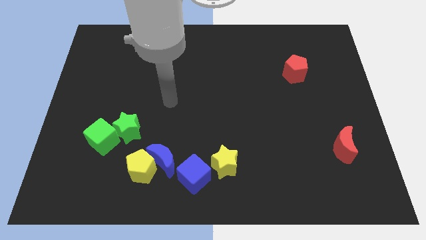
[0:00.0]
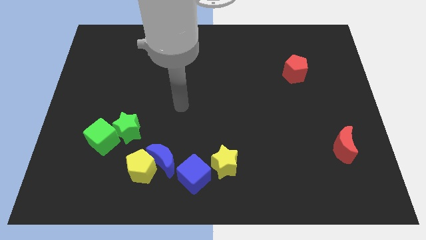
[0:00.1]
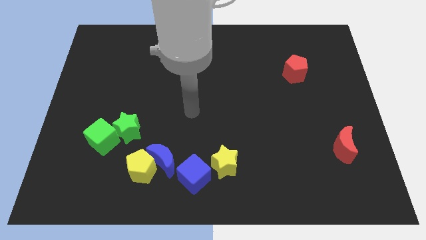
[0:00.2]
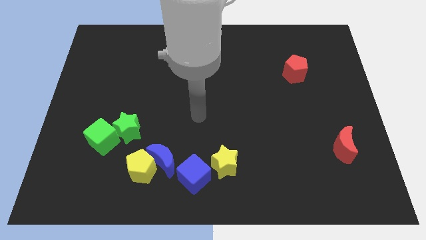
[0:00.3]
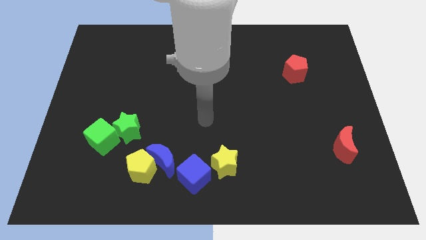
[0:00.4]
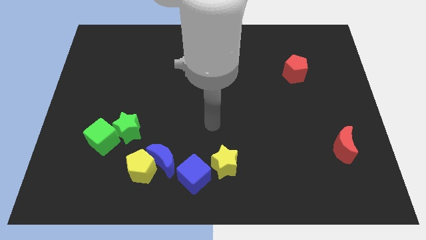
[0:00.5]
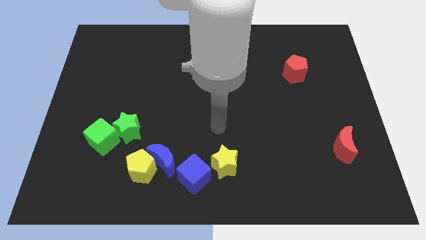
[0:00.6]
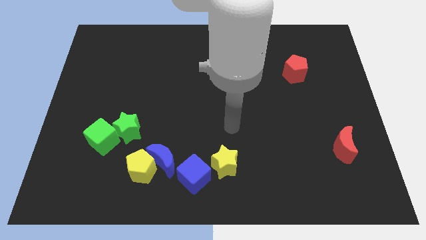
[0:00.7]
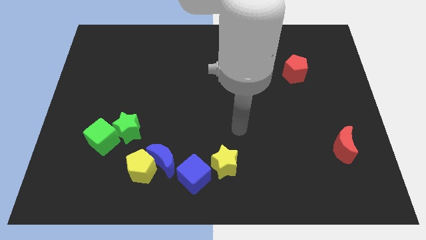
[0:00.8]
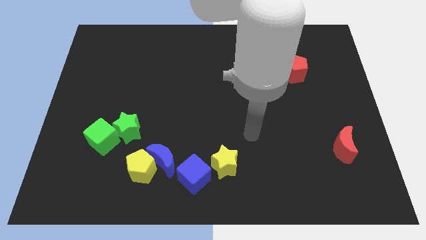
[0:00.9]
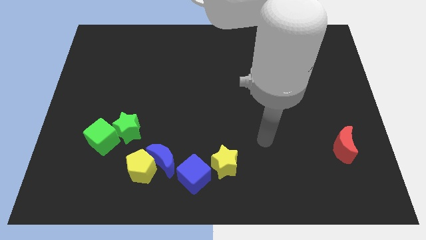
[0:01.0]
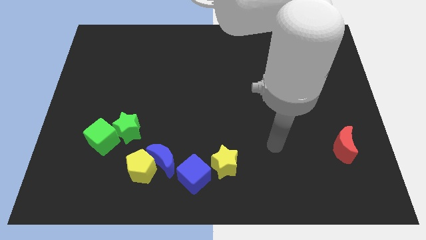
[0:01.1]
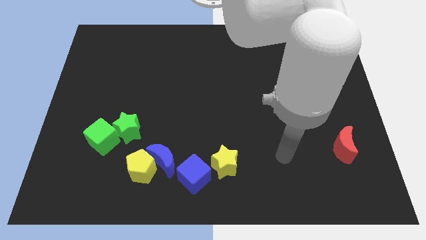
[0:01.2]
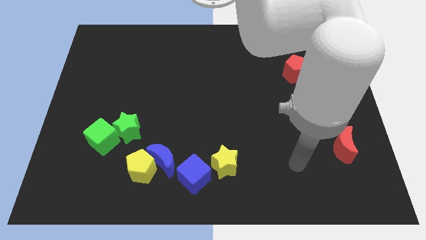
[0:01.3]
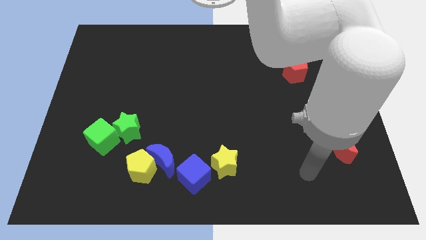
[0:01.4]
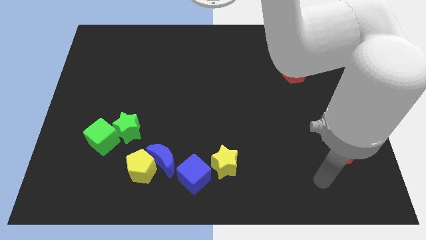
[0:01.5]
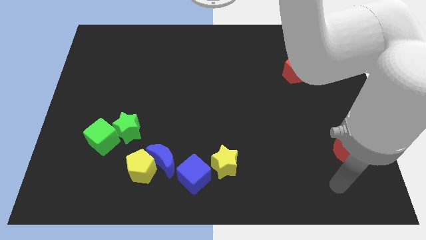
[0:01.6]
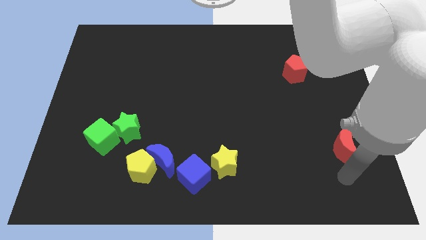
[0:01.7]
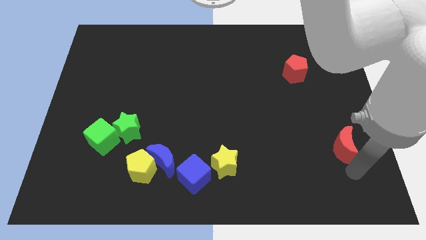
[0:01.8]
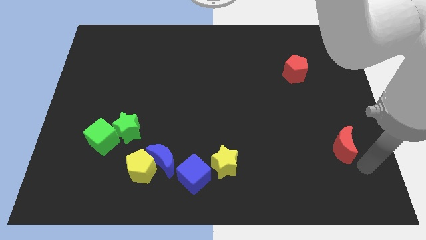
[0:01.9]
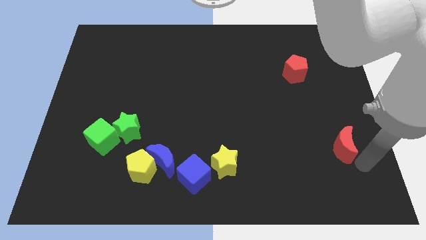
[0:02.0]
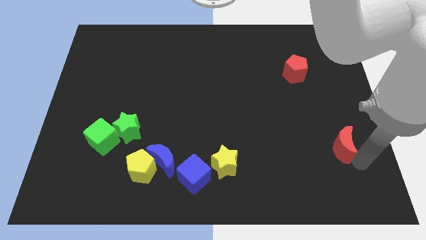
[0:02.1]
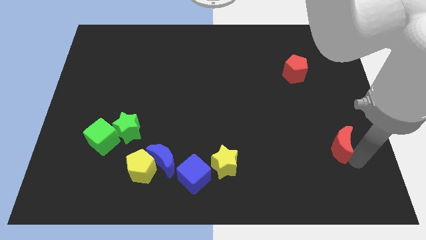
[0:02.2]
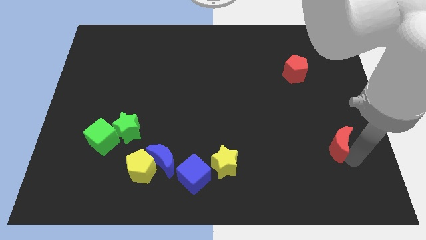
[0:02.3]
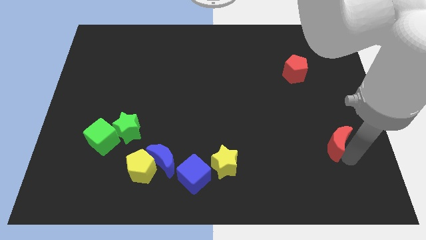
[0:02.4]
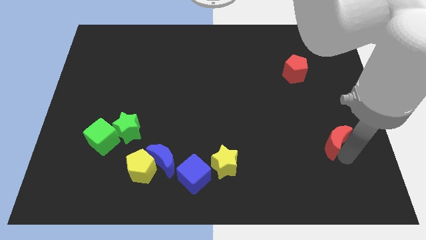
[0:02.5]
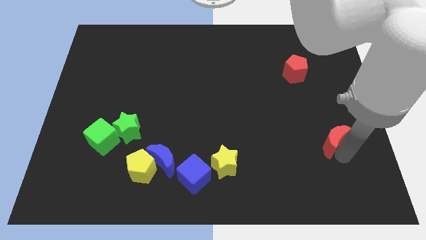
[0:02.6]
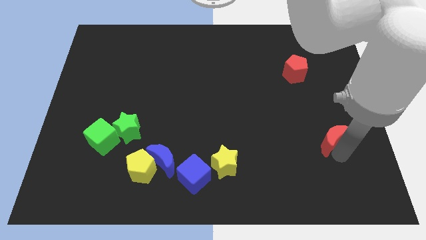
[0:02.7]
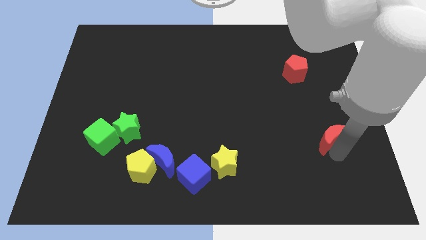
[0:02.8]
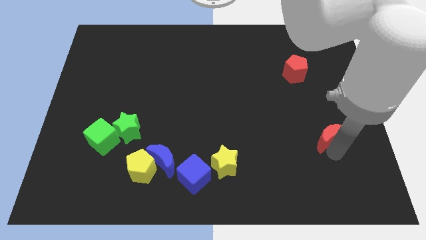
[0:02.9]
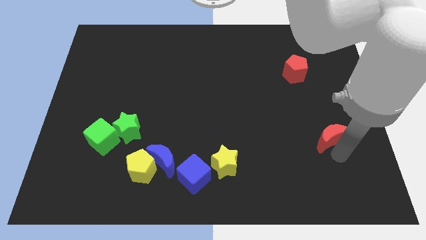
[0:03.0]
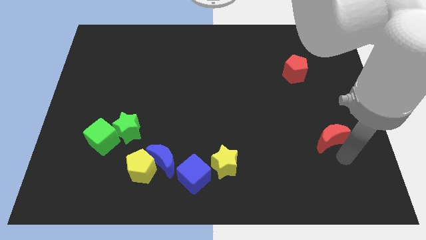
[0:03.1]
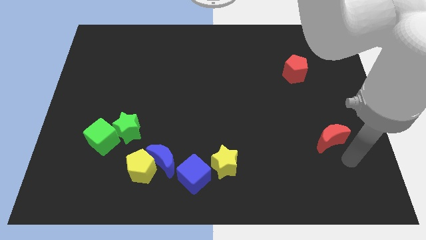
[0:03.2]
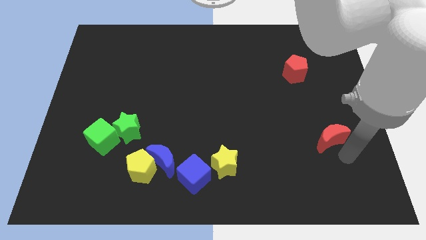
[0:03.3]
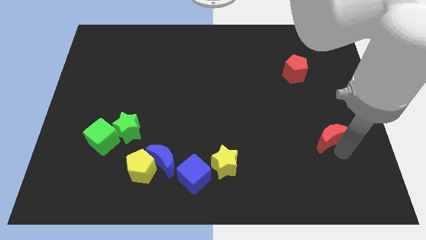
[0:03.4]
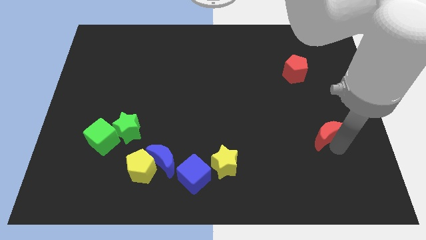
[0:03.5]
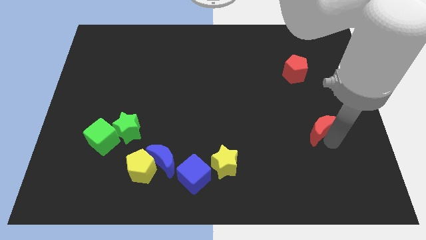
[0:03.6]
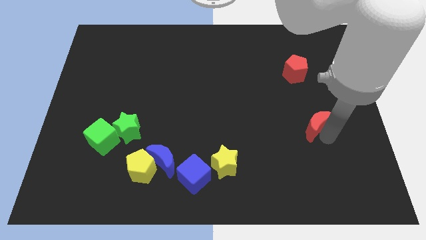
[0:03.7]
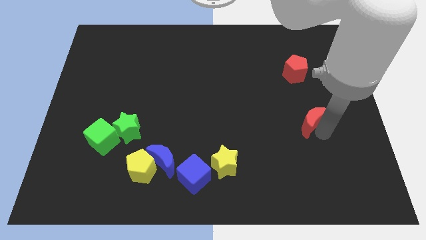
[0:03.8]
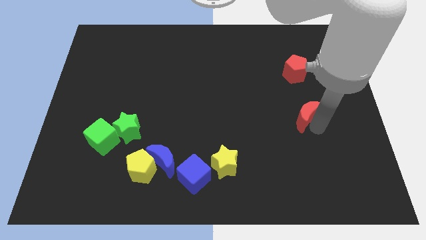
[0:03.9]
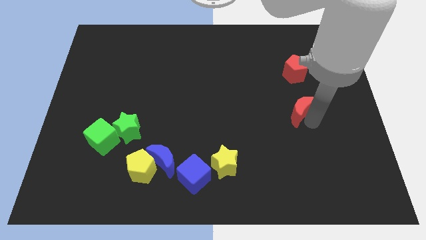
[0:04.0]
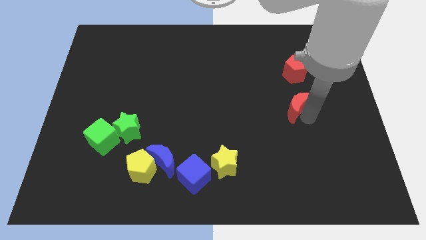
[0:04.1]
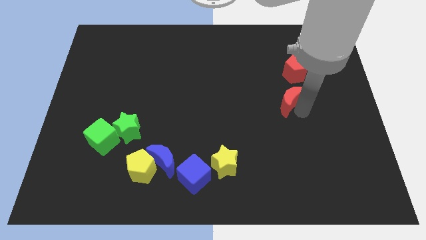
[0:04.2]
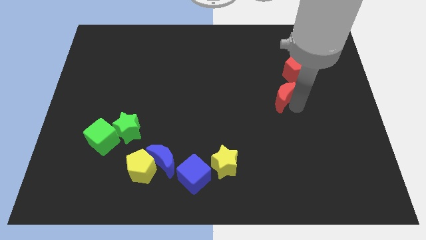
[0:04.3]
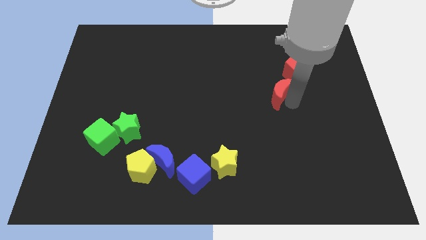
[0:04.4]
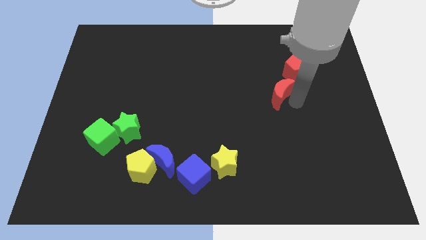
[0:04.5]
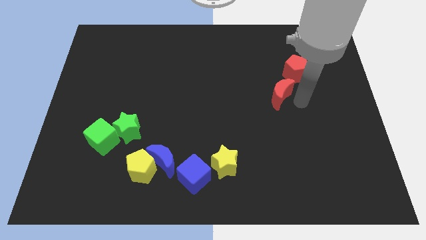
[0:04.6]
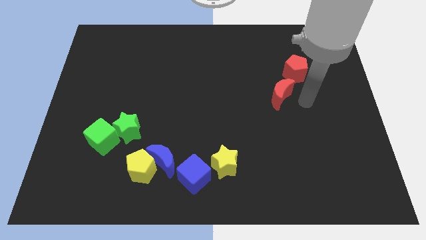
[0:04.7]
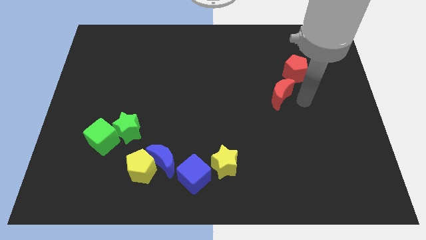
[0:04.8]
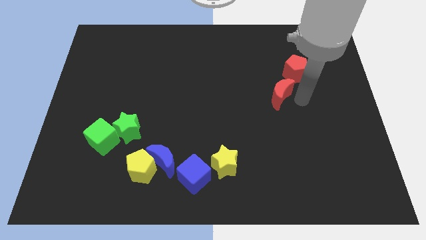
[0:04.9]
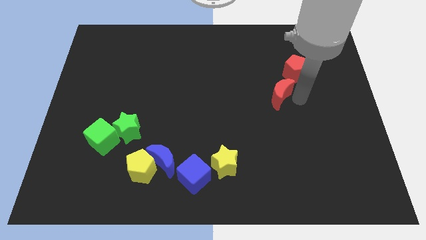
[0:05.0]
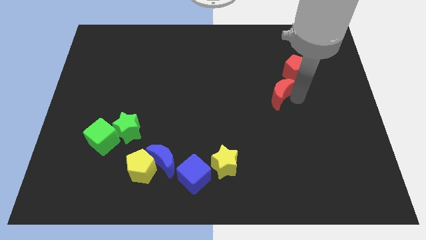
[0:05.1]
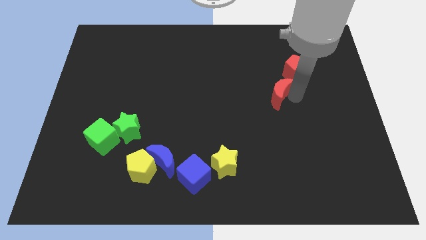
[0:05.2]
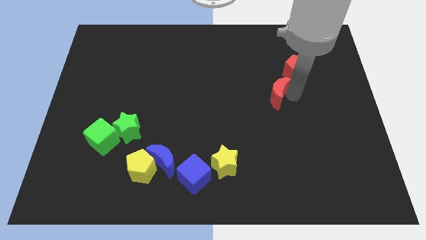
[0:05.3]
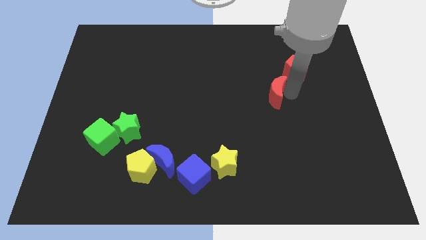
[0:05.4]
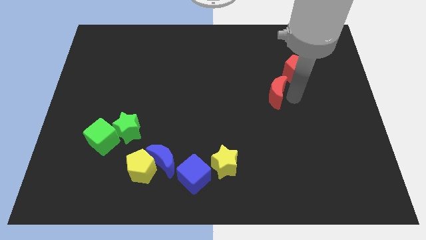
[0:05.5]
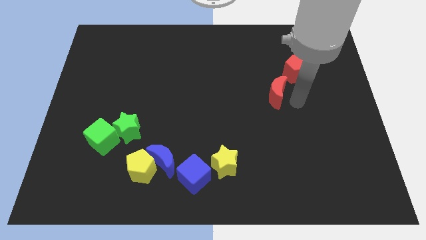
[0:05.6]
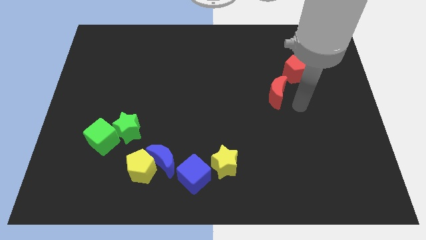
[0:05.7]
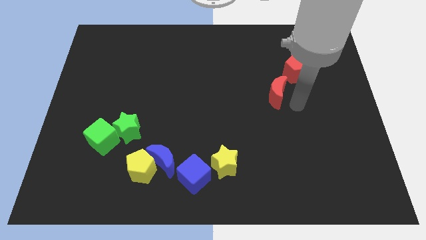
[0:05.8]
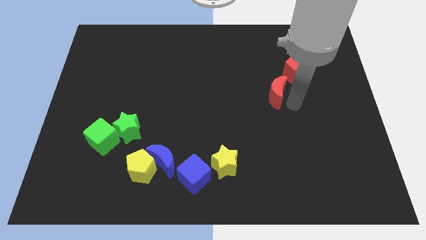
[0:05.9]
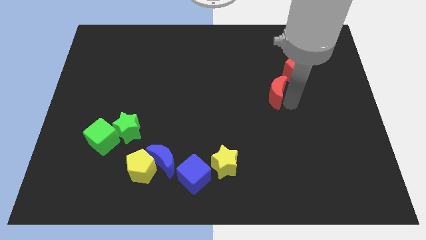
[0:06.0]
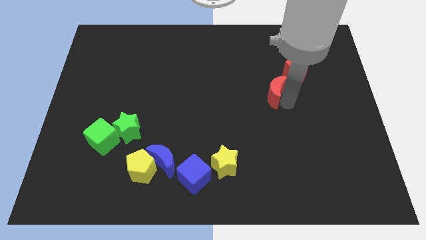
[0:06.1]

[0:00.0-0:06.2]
move the red moon upwards and to the left diagonally

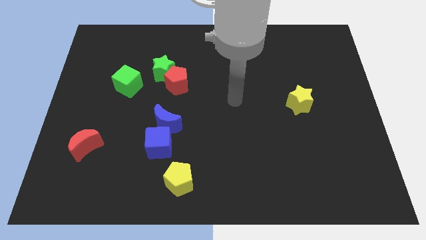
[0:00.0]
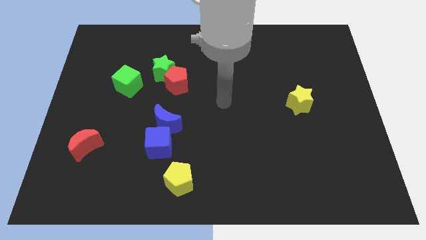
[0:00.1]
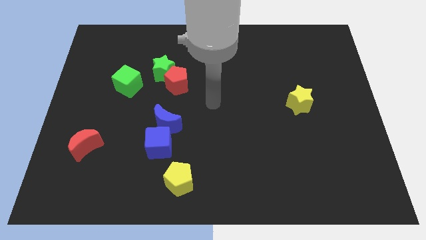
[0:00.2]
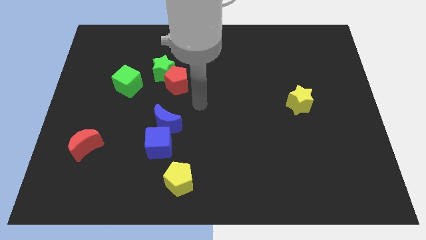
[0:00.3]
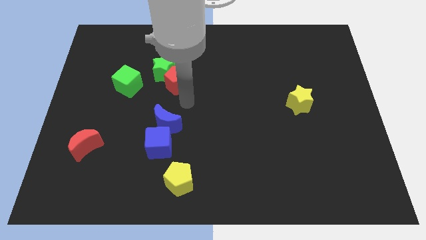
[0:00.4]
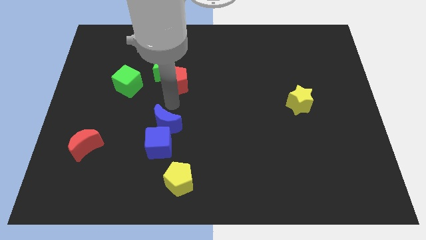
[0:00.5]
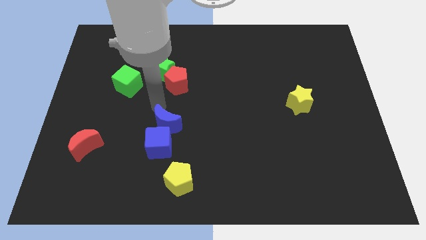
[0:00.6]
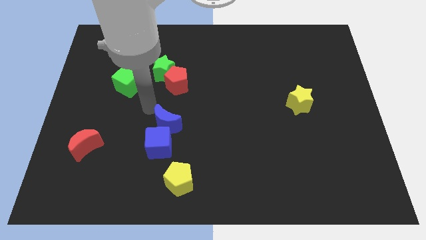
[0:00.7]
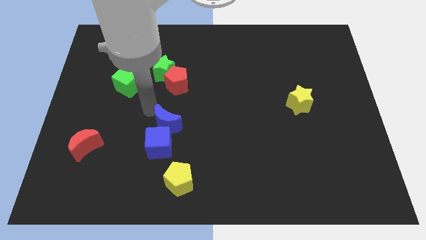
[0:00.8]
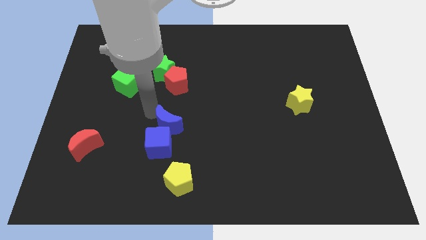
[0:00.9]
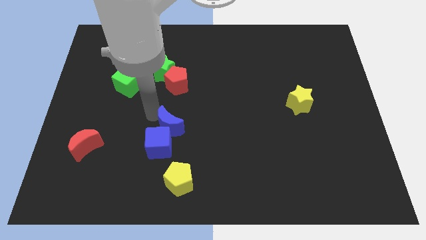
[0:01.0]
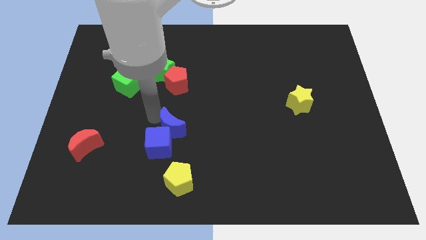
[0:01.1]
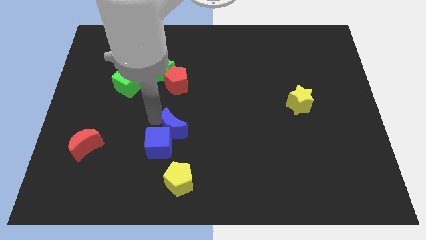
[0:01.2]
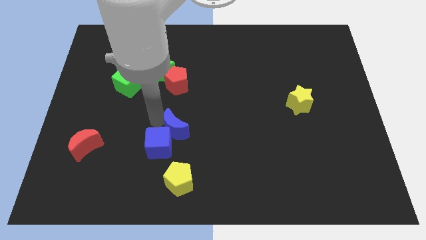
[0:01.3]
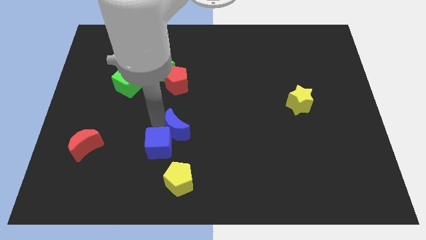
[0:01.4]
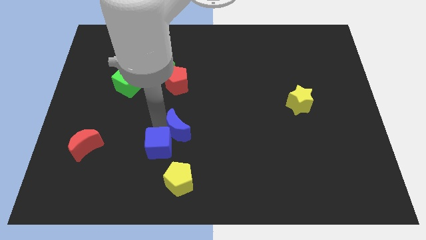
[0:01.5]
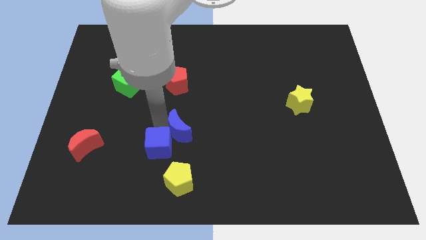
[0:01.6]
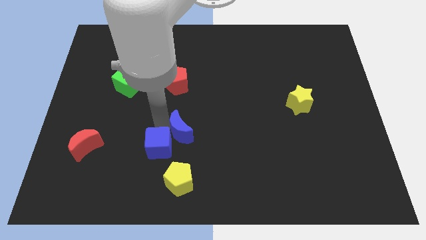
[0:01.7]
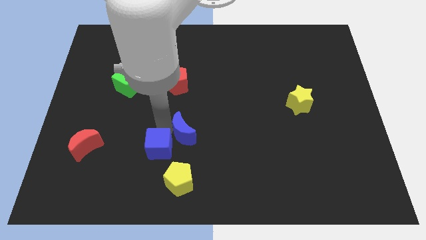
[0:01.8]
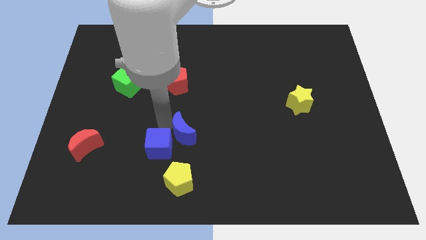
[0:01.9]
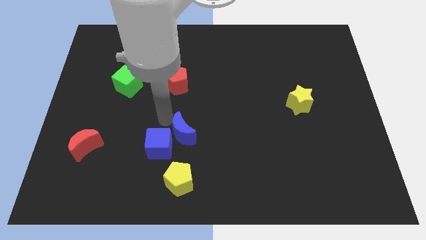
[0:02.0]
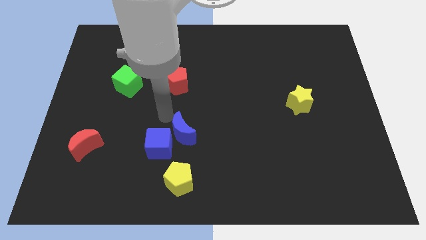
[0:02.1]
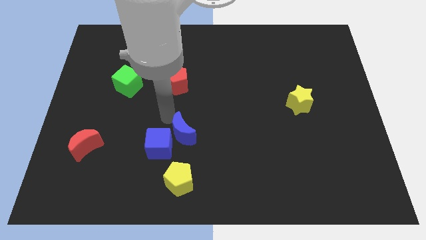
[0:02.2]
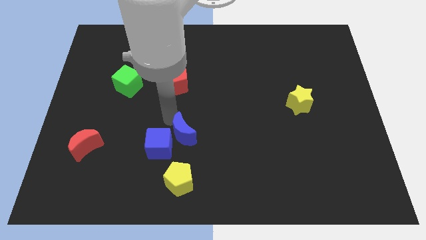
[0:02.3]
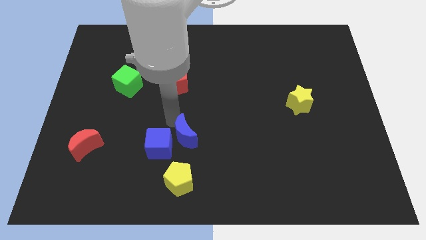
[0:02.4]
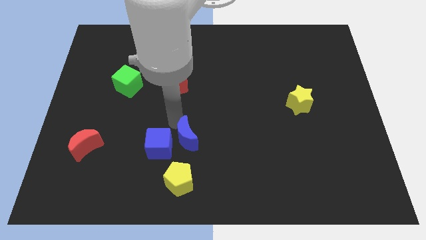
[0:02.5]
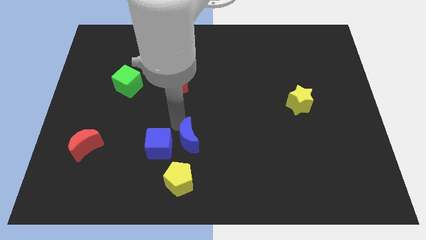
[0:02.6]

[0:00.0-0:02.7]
push the blue moon a little bit downwards and to the right
